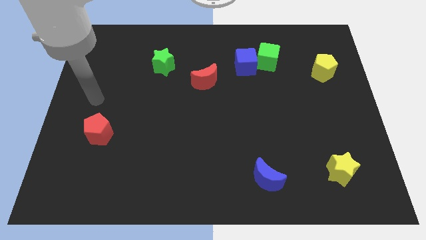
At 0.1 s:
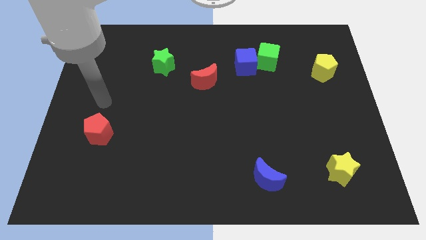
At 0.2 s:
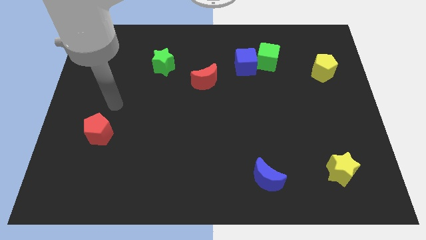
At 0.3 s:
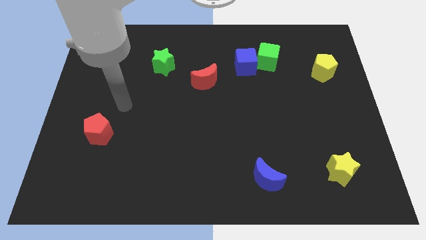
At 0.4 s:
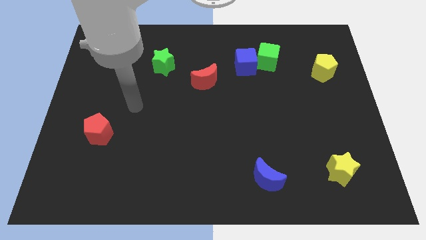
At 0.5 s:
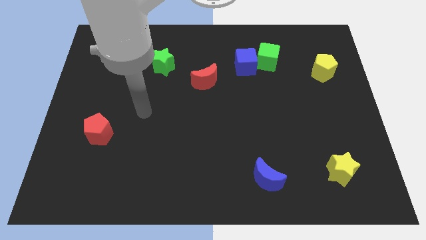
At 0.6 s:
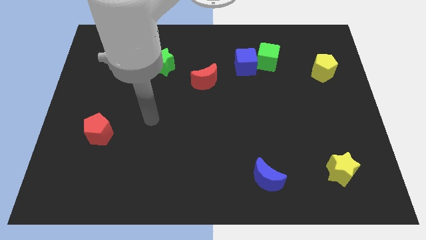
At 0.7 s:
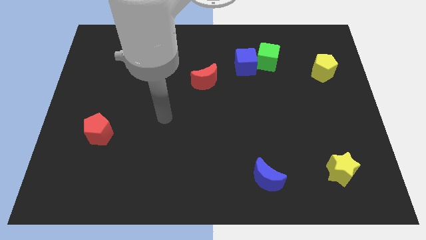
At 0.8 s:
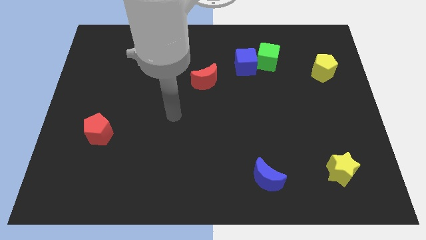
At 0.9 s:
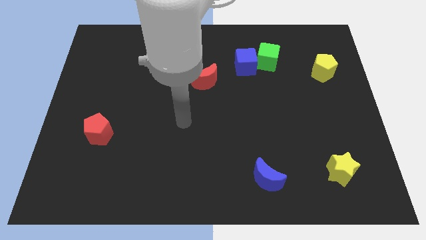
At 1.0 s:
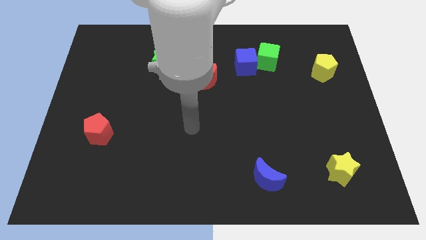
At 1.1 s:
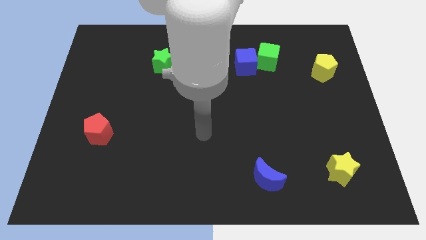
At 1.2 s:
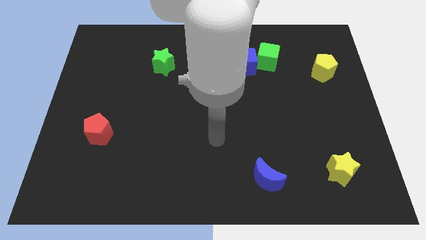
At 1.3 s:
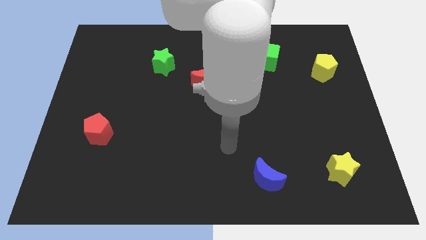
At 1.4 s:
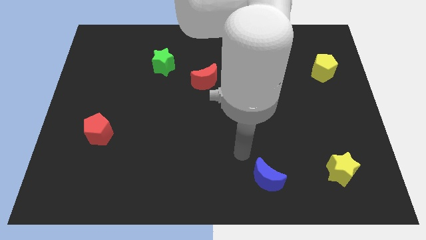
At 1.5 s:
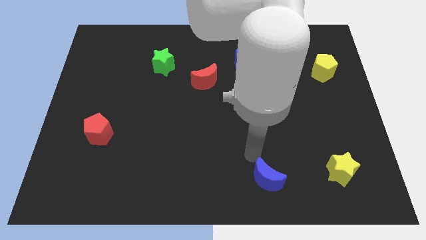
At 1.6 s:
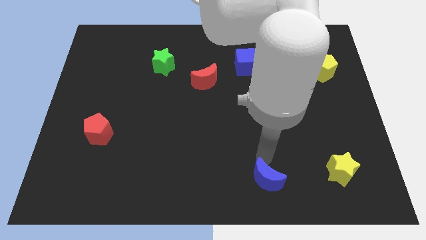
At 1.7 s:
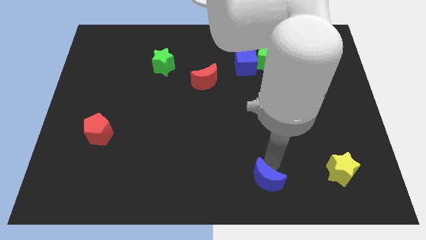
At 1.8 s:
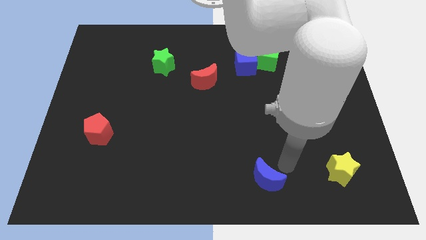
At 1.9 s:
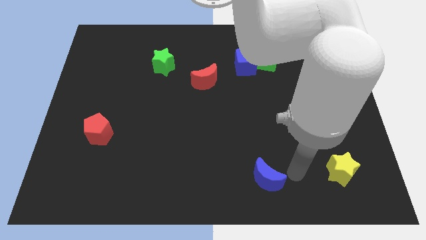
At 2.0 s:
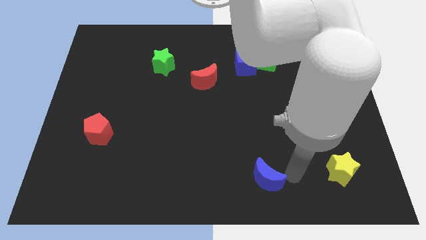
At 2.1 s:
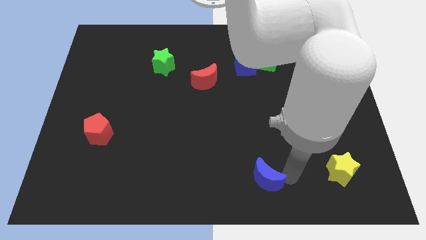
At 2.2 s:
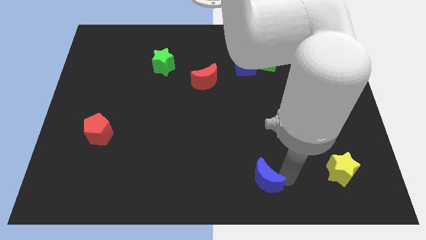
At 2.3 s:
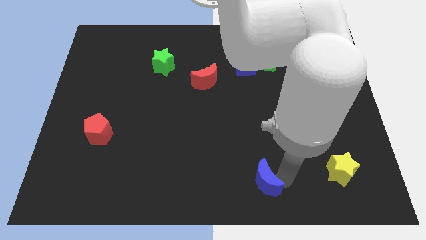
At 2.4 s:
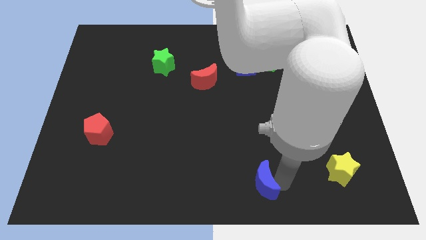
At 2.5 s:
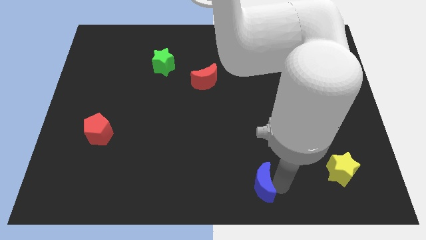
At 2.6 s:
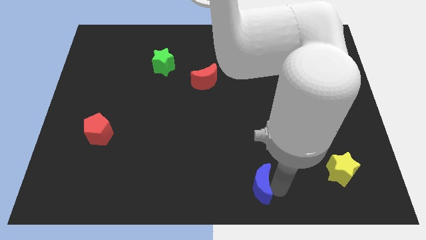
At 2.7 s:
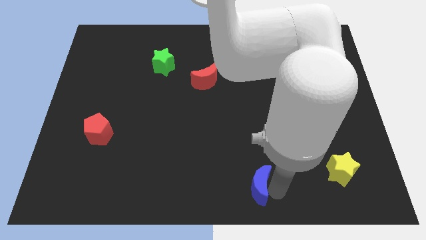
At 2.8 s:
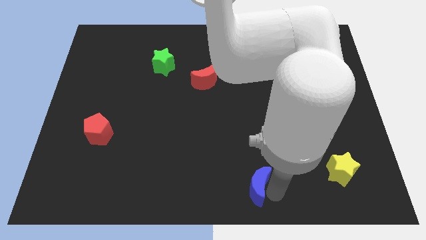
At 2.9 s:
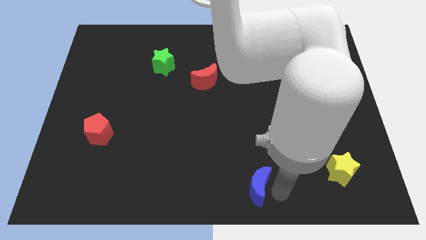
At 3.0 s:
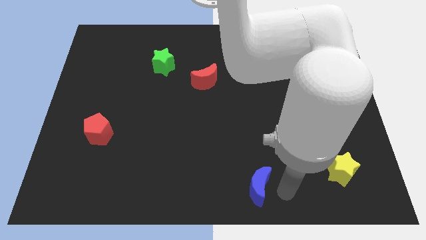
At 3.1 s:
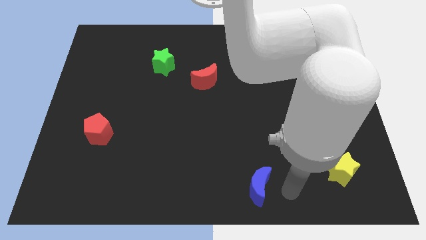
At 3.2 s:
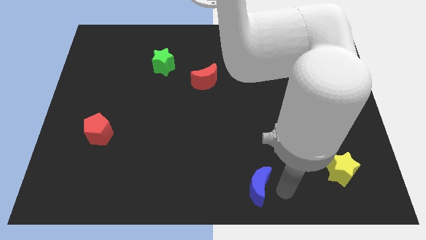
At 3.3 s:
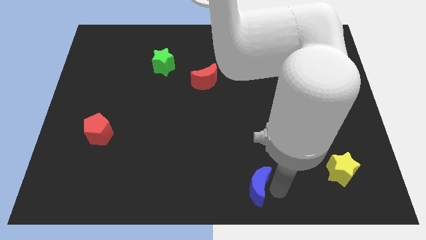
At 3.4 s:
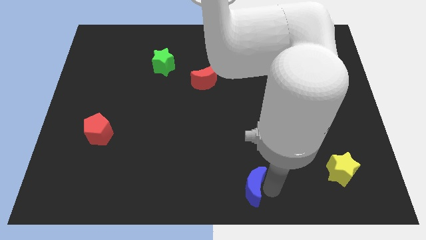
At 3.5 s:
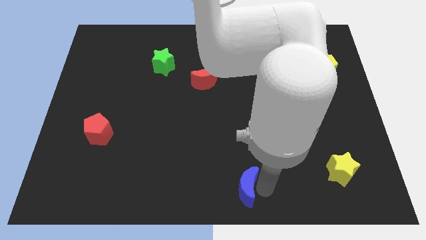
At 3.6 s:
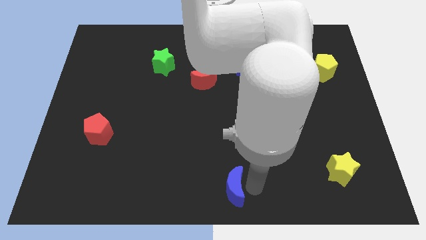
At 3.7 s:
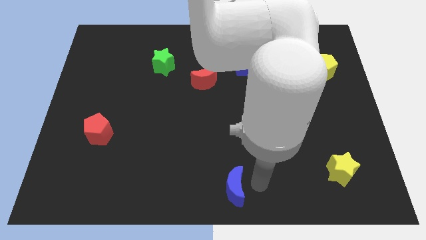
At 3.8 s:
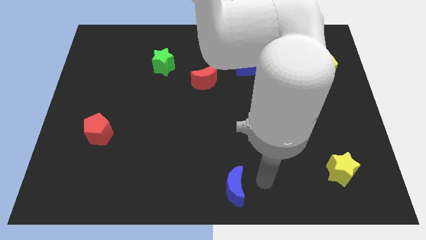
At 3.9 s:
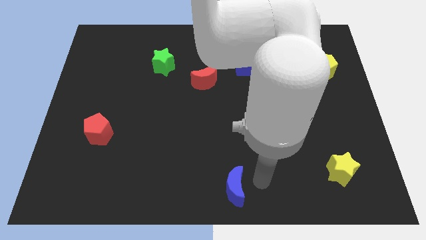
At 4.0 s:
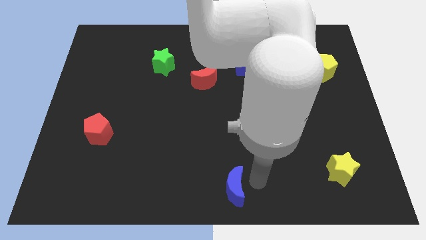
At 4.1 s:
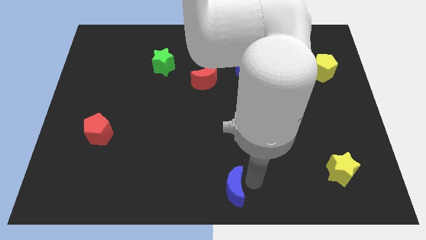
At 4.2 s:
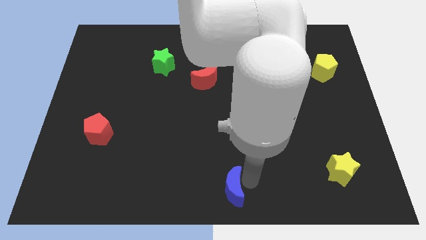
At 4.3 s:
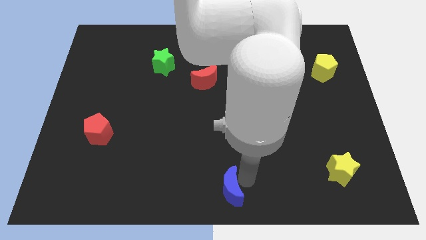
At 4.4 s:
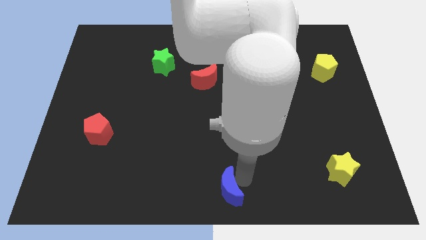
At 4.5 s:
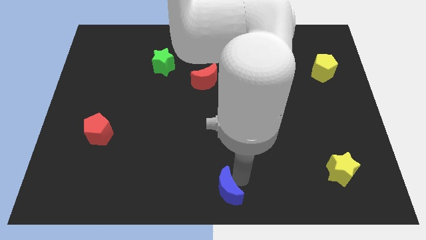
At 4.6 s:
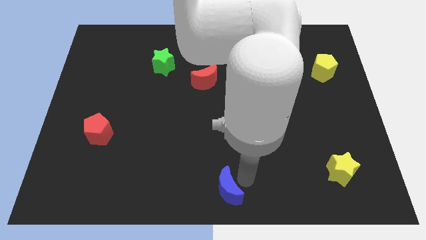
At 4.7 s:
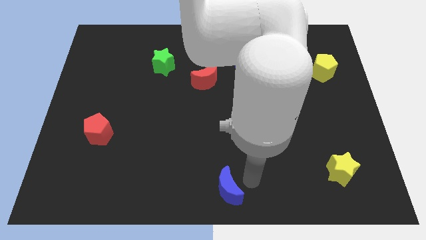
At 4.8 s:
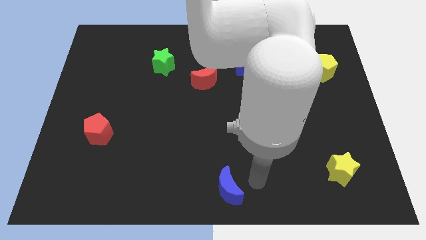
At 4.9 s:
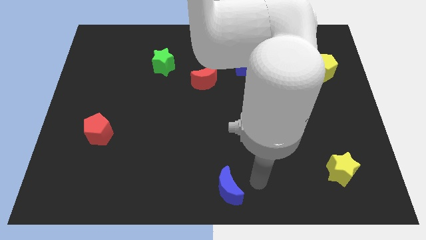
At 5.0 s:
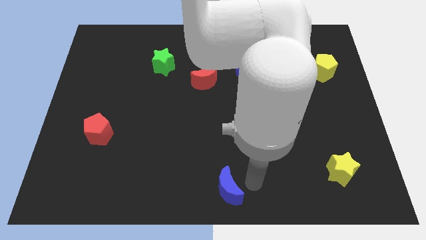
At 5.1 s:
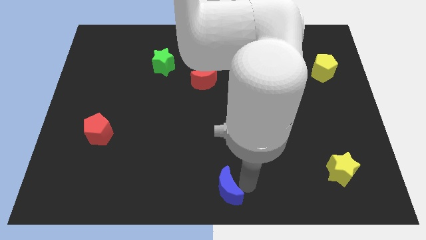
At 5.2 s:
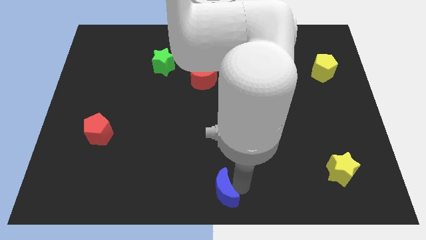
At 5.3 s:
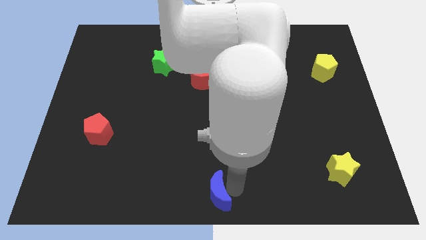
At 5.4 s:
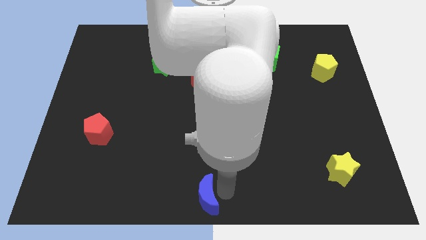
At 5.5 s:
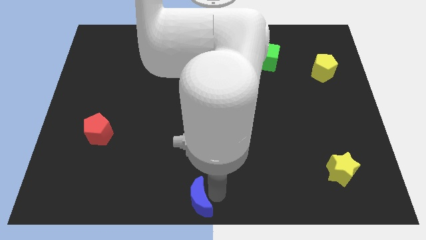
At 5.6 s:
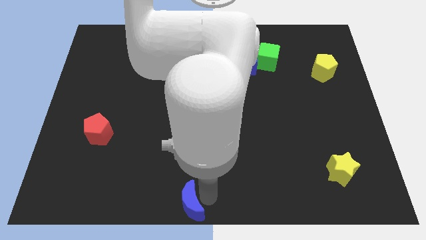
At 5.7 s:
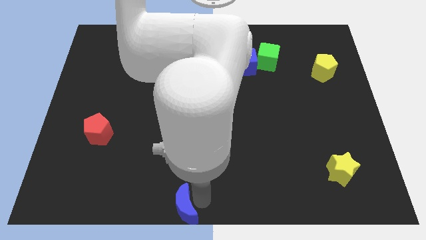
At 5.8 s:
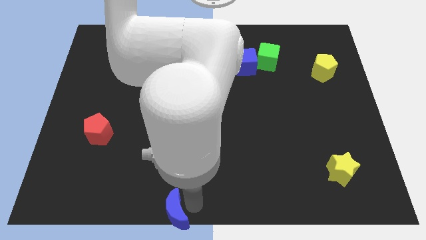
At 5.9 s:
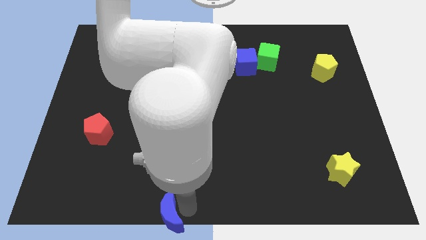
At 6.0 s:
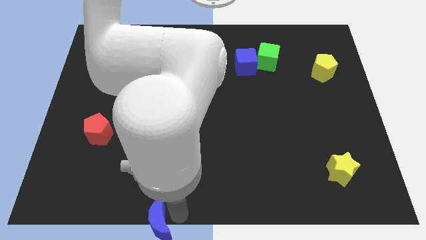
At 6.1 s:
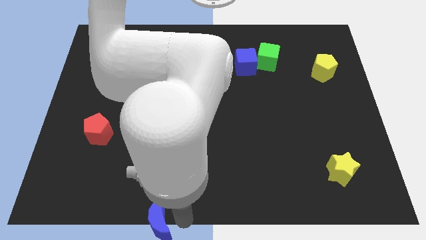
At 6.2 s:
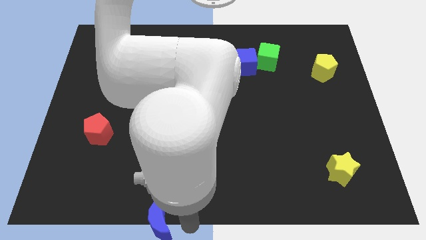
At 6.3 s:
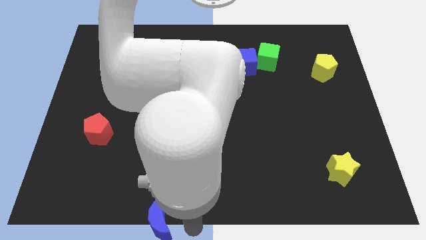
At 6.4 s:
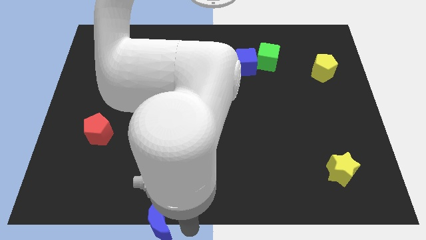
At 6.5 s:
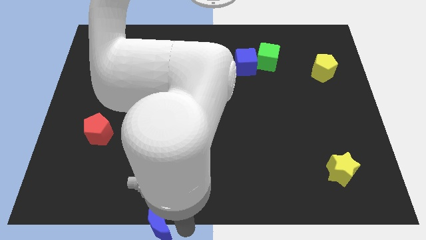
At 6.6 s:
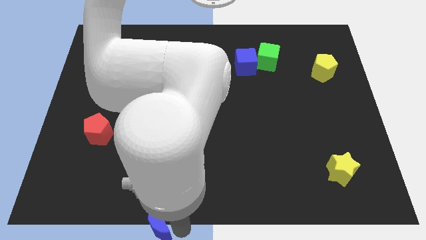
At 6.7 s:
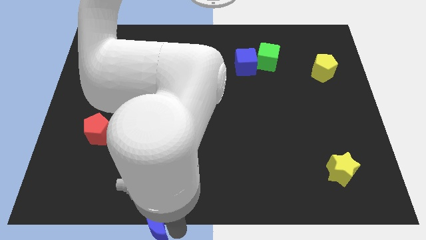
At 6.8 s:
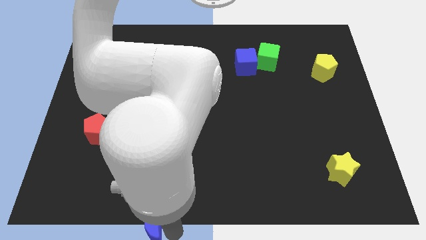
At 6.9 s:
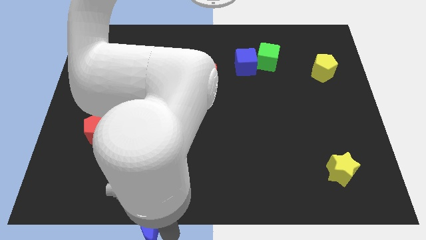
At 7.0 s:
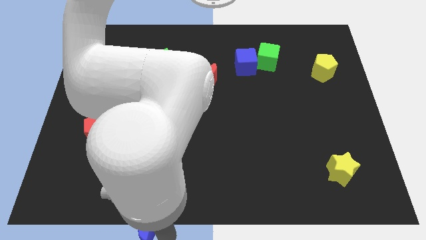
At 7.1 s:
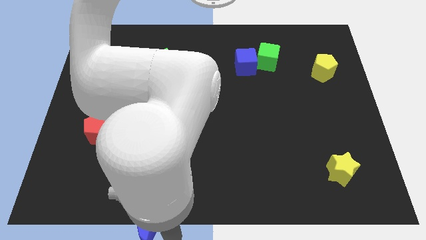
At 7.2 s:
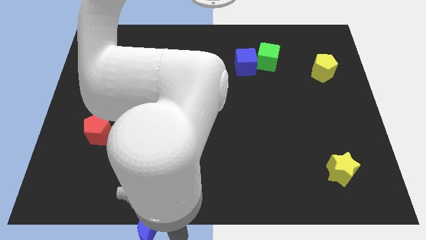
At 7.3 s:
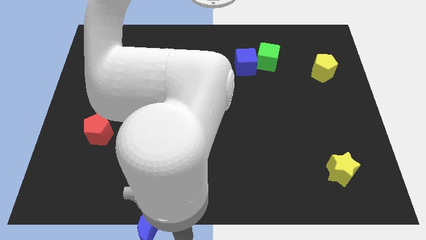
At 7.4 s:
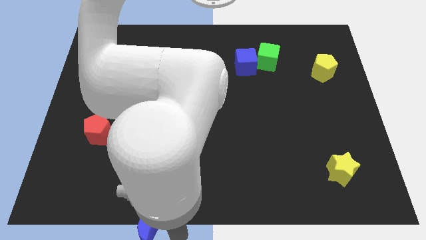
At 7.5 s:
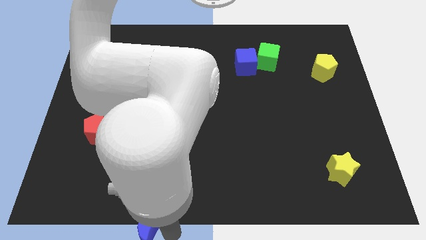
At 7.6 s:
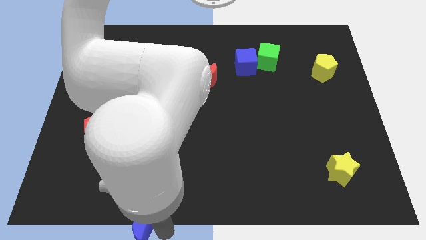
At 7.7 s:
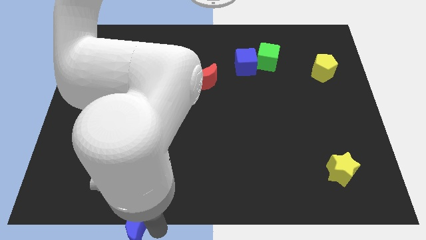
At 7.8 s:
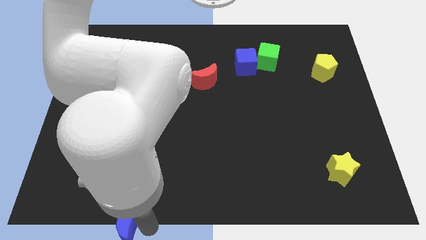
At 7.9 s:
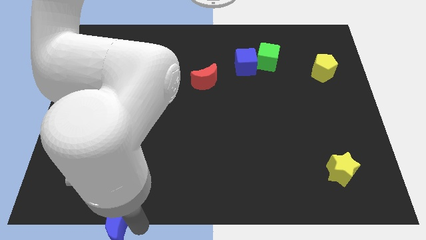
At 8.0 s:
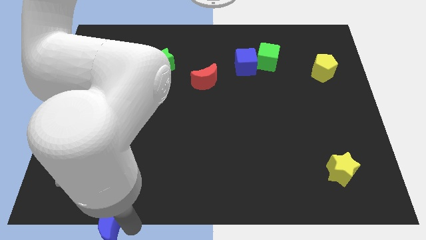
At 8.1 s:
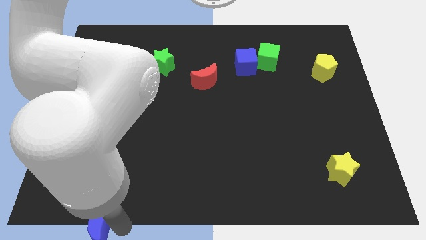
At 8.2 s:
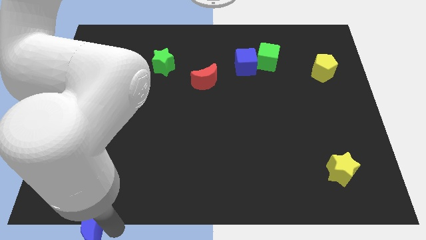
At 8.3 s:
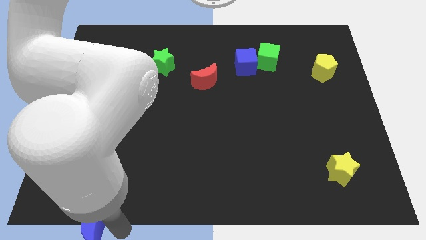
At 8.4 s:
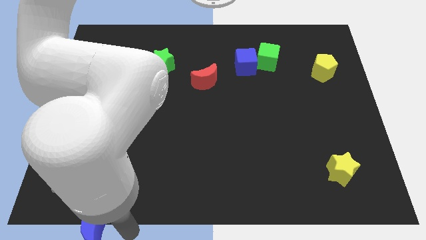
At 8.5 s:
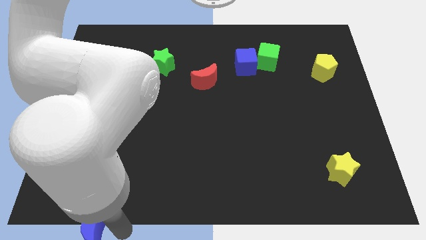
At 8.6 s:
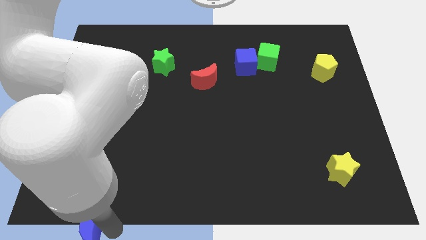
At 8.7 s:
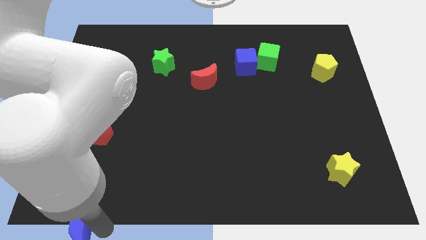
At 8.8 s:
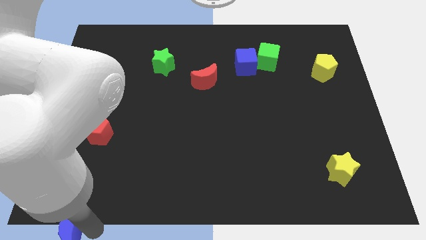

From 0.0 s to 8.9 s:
push the blue moon to the lower left corner
